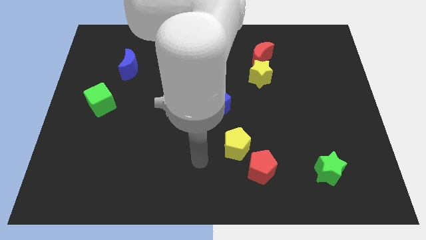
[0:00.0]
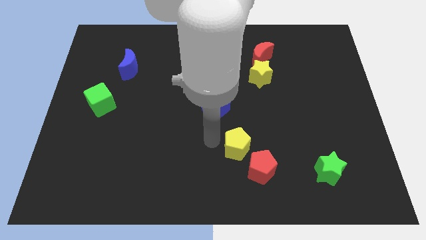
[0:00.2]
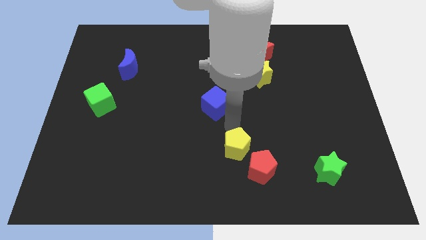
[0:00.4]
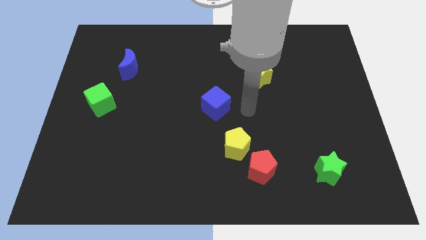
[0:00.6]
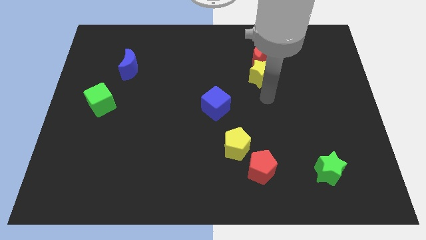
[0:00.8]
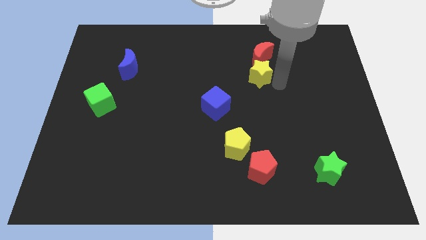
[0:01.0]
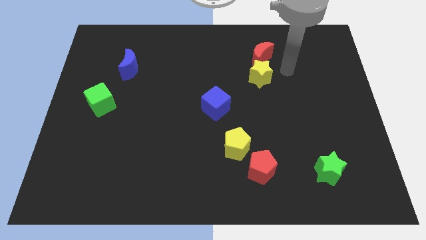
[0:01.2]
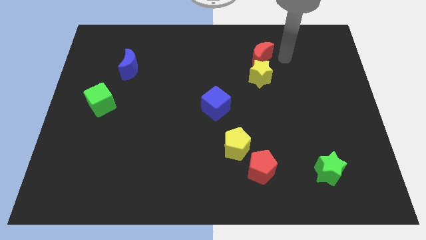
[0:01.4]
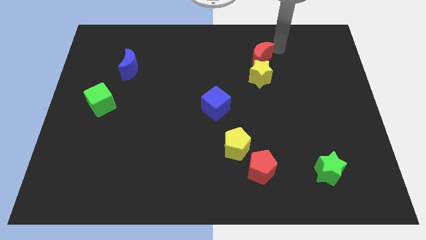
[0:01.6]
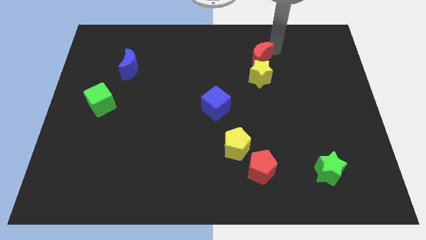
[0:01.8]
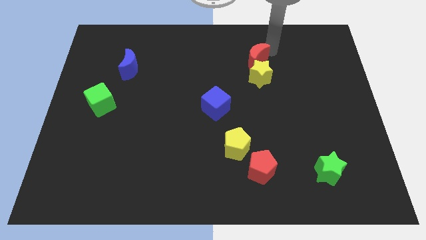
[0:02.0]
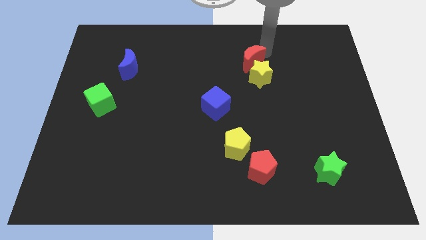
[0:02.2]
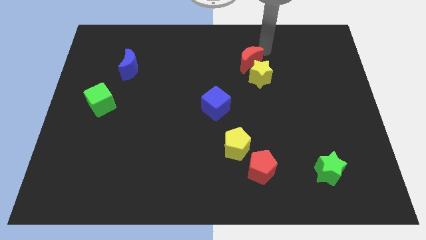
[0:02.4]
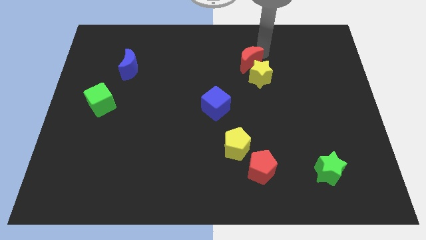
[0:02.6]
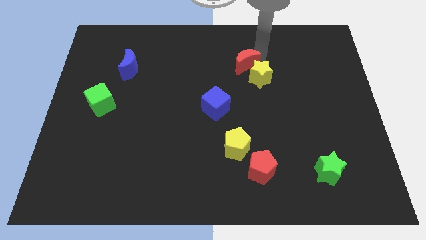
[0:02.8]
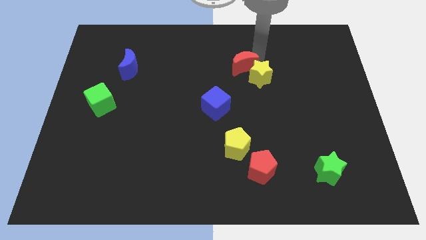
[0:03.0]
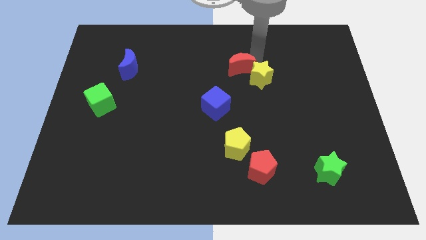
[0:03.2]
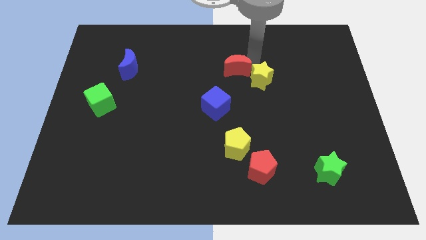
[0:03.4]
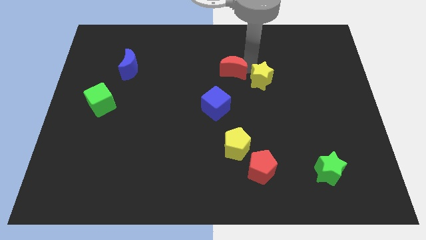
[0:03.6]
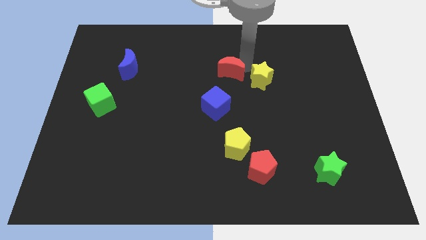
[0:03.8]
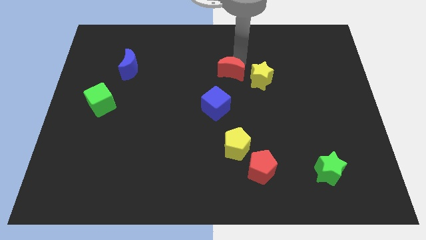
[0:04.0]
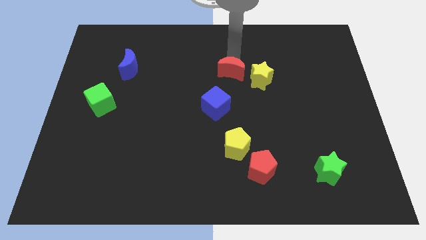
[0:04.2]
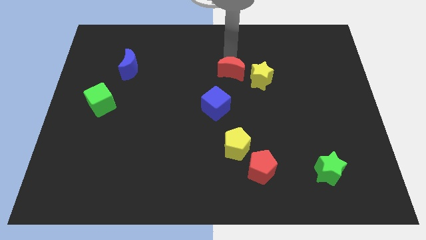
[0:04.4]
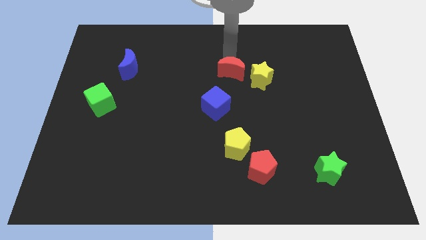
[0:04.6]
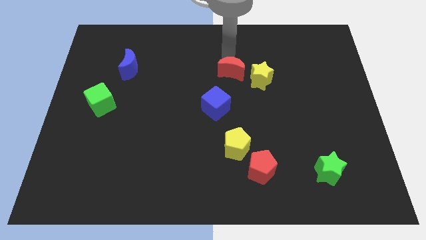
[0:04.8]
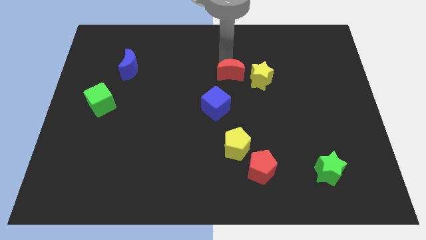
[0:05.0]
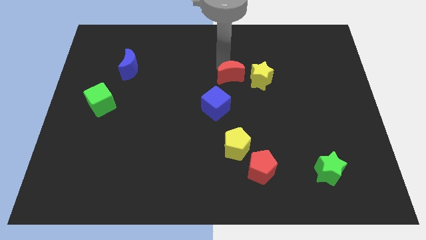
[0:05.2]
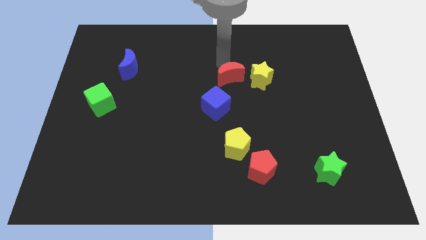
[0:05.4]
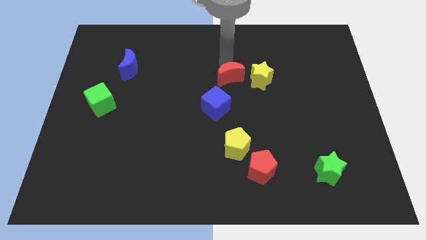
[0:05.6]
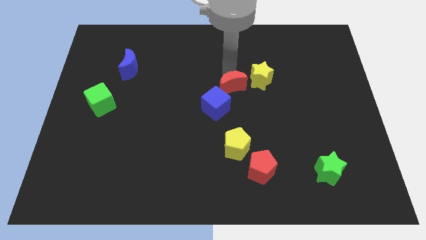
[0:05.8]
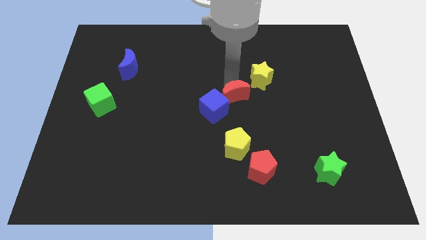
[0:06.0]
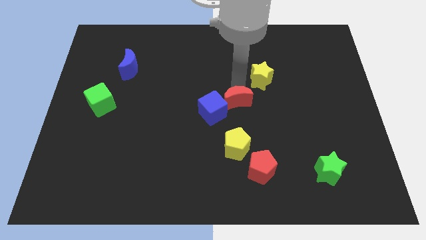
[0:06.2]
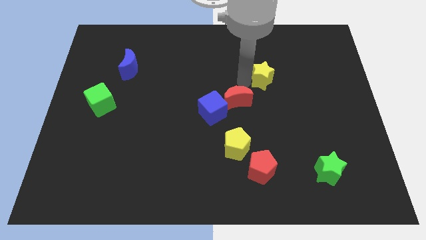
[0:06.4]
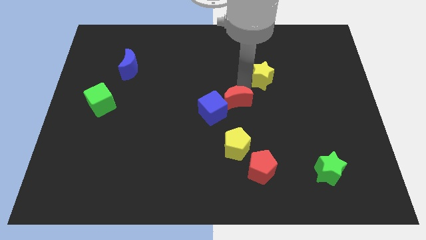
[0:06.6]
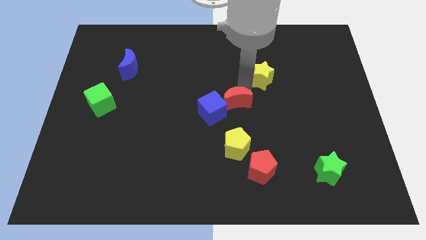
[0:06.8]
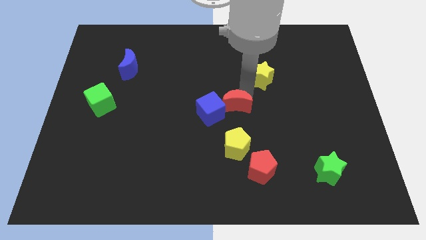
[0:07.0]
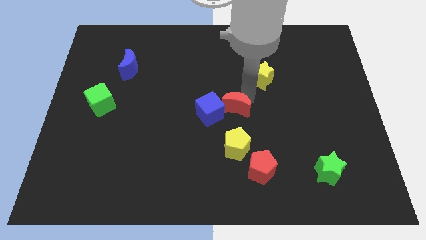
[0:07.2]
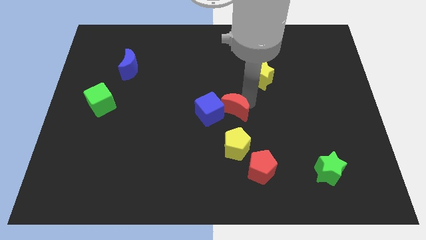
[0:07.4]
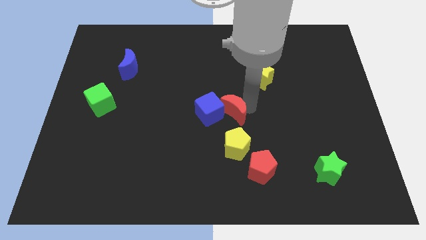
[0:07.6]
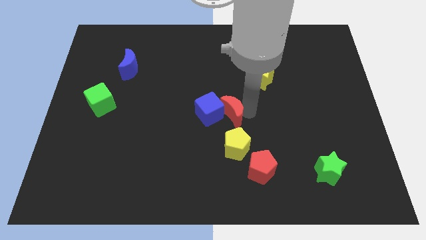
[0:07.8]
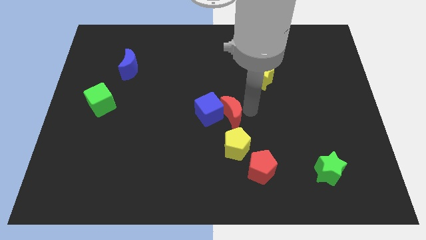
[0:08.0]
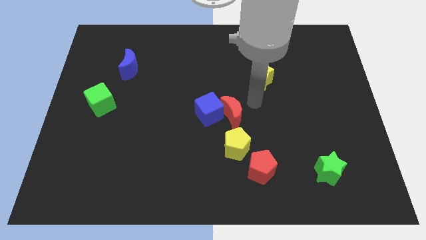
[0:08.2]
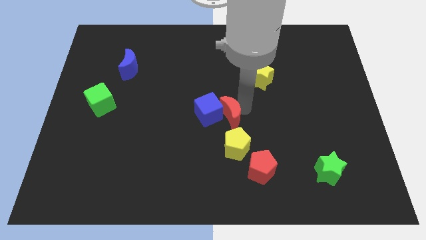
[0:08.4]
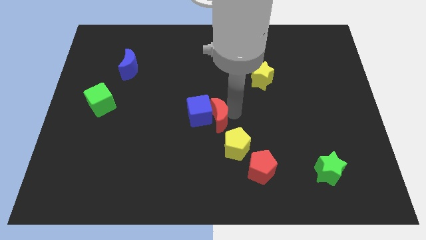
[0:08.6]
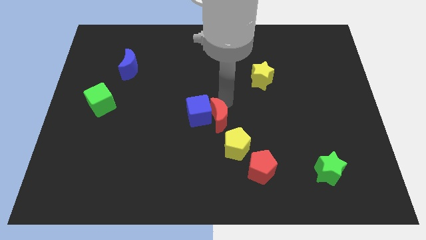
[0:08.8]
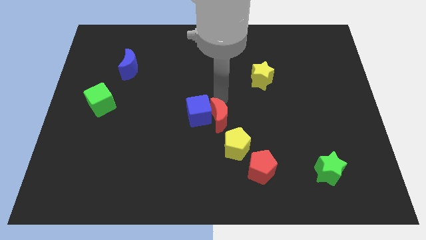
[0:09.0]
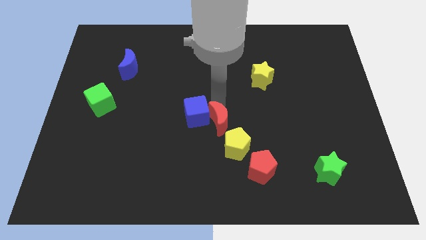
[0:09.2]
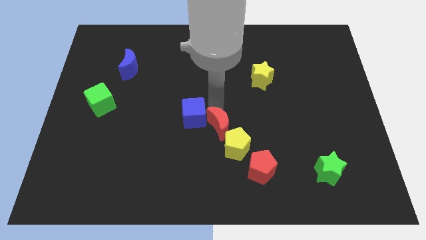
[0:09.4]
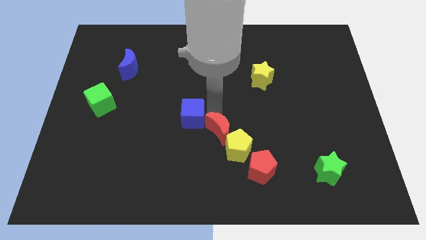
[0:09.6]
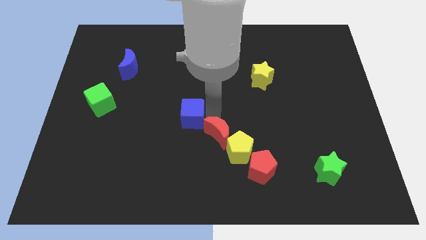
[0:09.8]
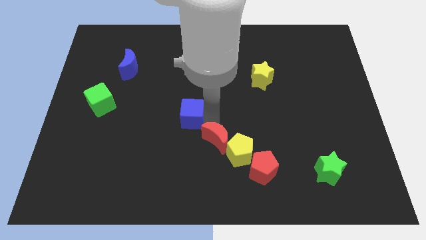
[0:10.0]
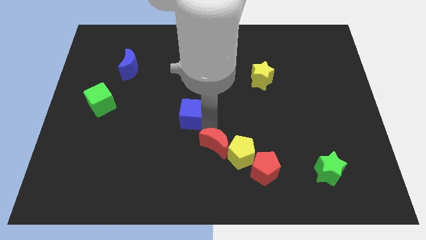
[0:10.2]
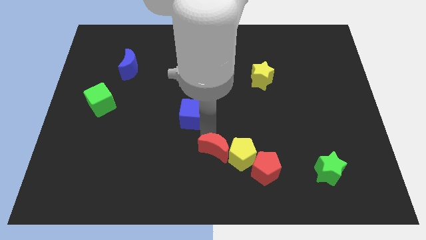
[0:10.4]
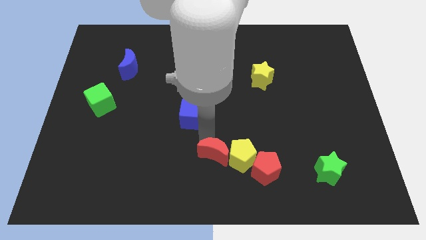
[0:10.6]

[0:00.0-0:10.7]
slide the red moon to the bottom

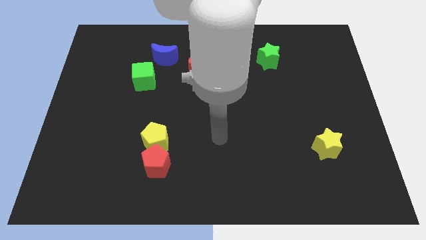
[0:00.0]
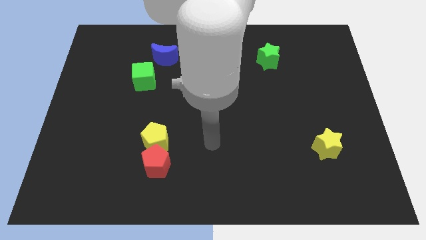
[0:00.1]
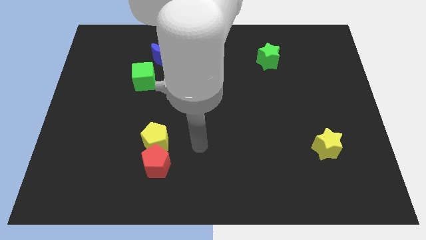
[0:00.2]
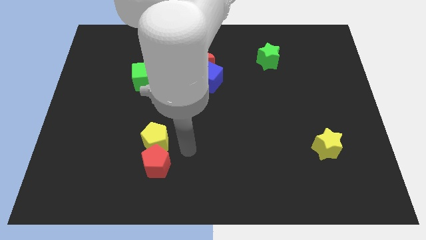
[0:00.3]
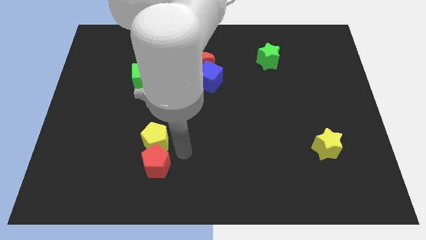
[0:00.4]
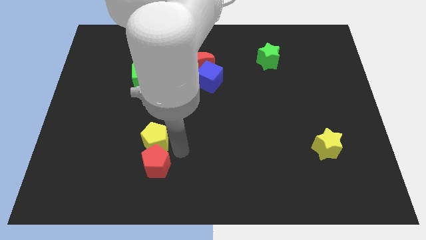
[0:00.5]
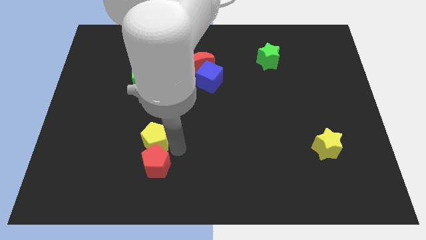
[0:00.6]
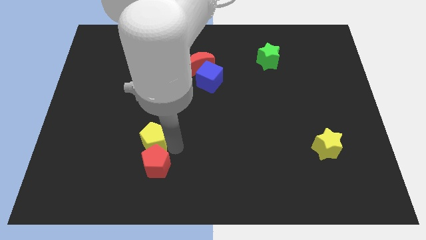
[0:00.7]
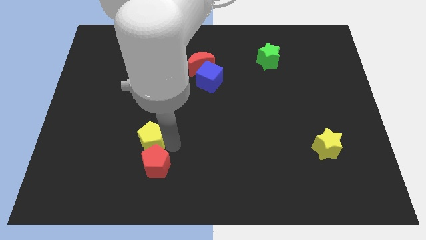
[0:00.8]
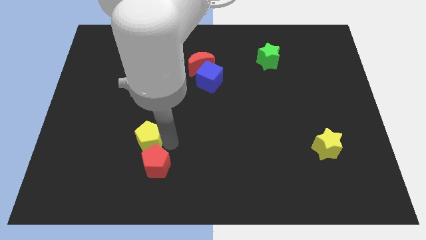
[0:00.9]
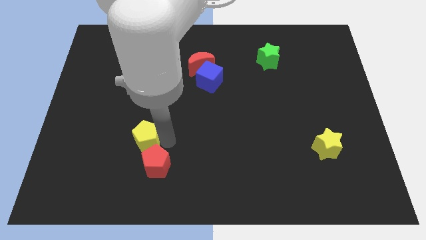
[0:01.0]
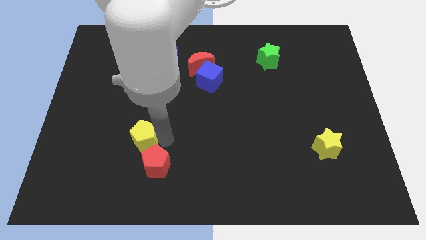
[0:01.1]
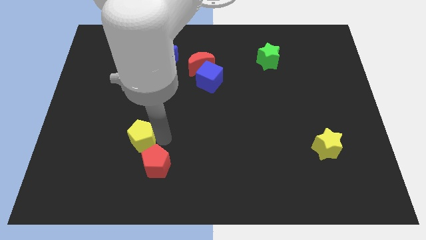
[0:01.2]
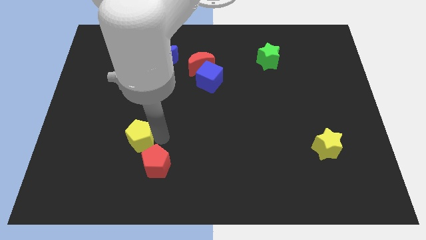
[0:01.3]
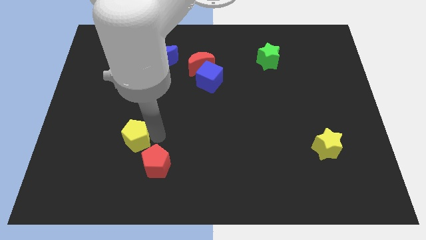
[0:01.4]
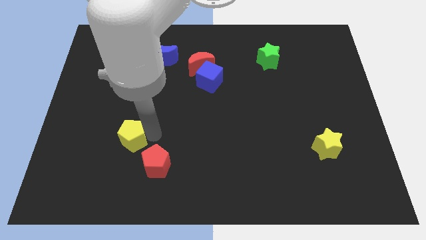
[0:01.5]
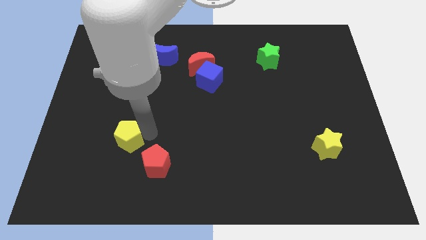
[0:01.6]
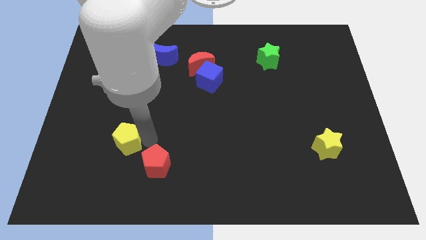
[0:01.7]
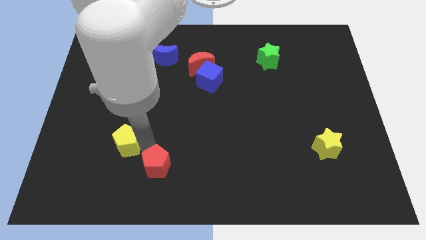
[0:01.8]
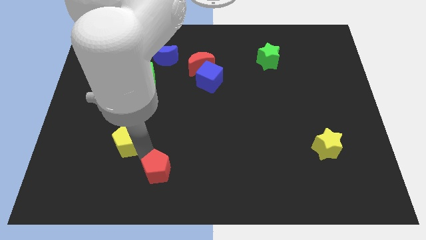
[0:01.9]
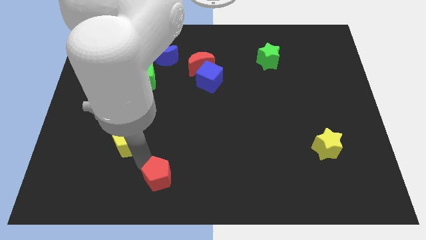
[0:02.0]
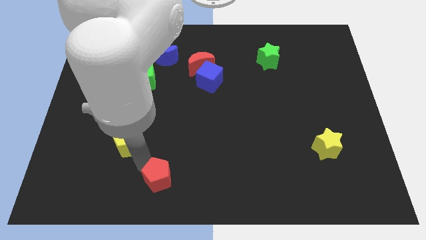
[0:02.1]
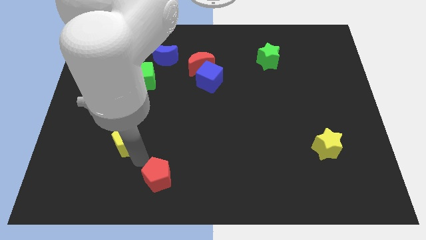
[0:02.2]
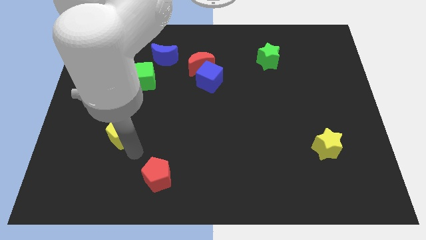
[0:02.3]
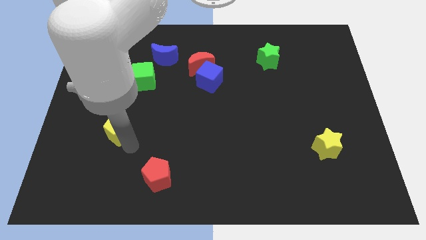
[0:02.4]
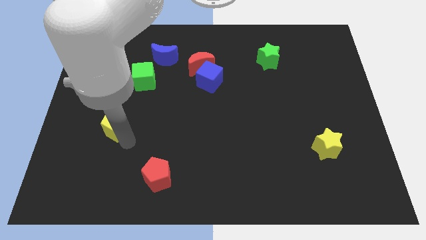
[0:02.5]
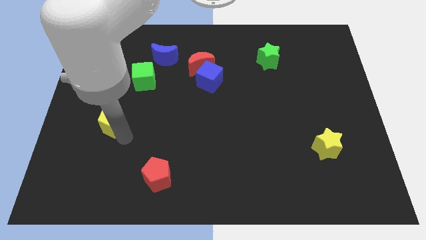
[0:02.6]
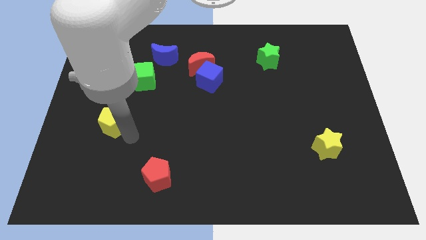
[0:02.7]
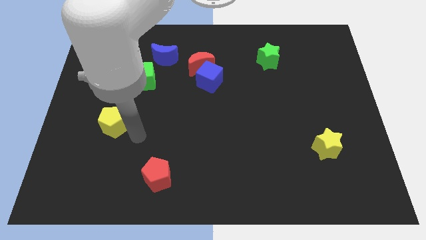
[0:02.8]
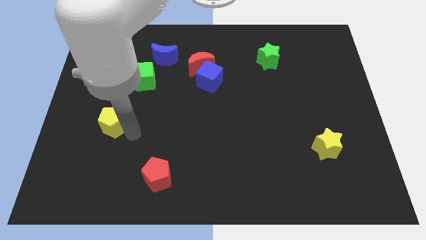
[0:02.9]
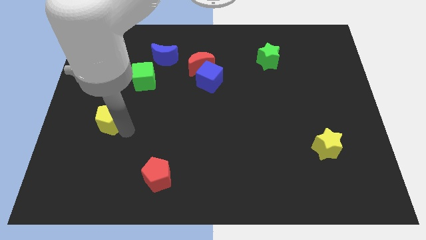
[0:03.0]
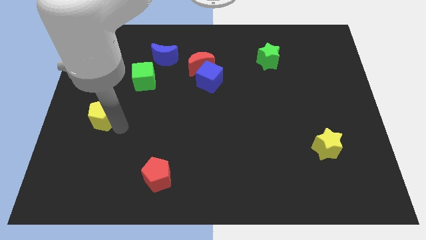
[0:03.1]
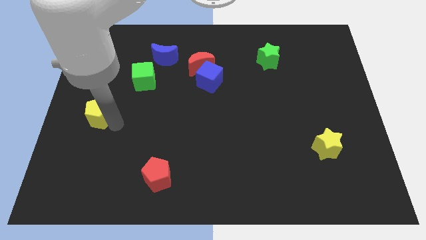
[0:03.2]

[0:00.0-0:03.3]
put the yellow pentagon to the center left
